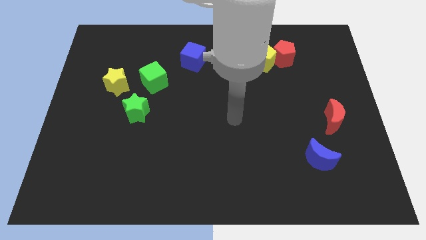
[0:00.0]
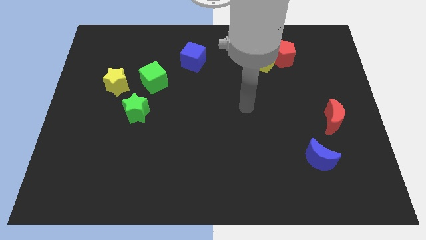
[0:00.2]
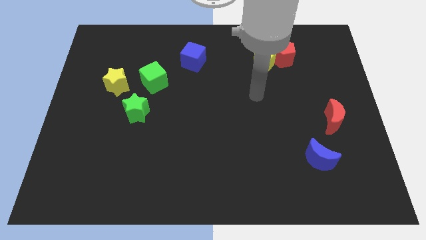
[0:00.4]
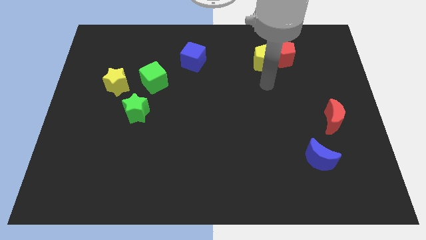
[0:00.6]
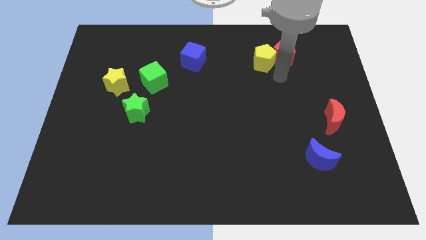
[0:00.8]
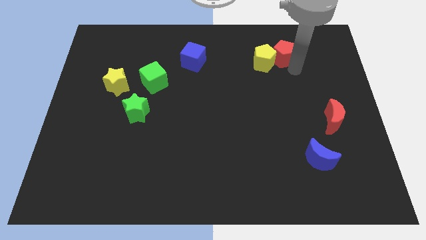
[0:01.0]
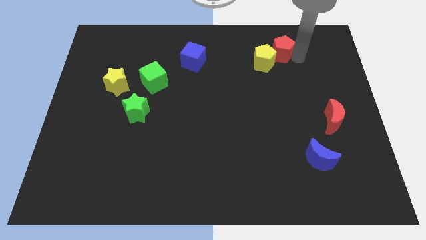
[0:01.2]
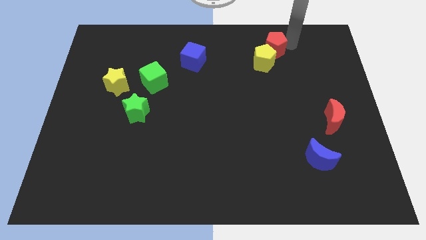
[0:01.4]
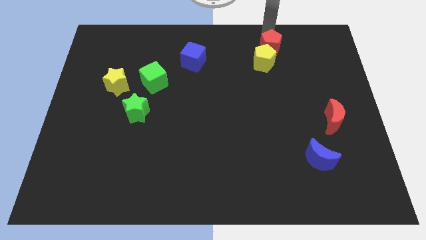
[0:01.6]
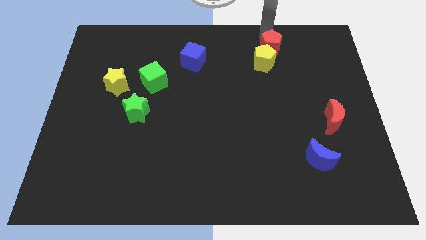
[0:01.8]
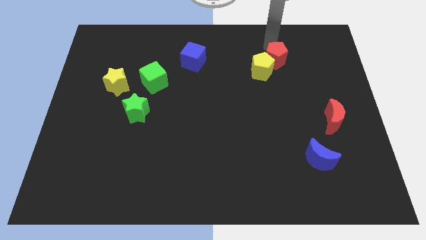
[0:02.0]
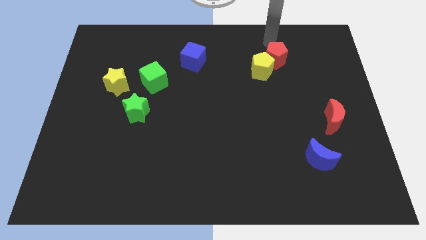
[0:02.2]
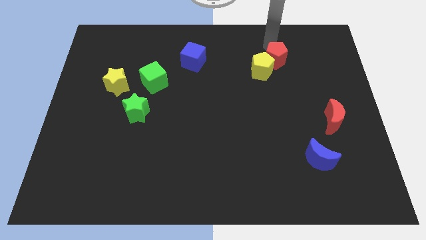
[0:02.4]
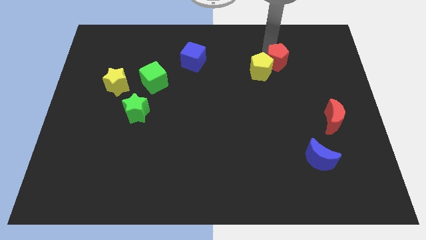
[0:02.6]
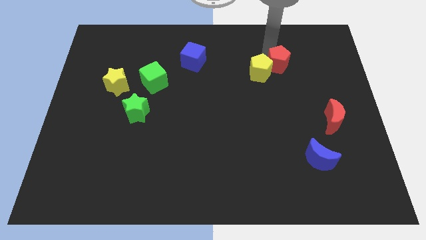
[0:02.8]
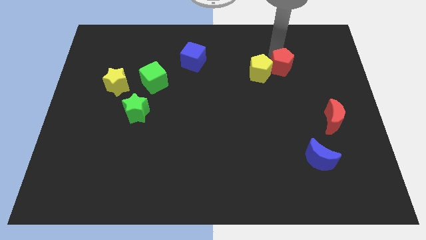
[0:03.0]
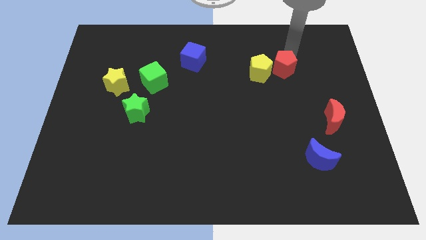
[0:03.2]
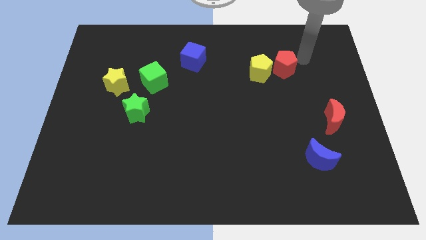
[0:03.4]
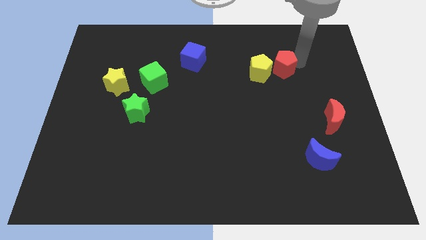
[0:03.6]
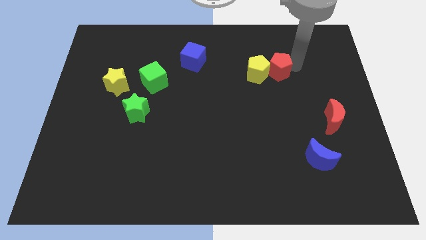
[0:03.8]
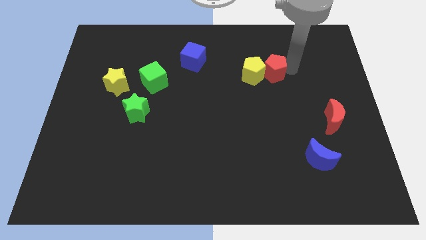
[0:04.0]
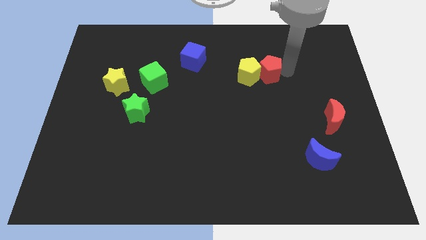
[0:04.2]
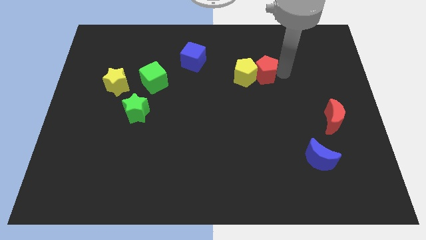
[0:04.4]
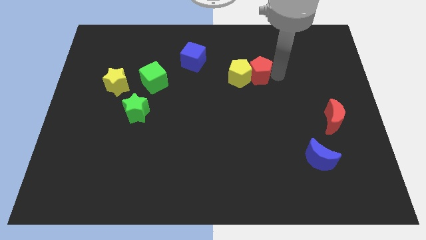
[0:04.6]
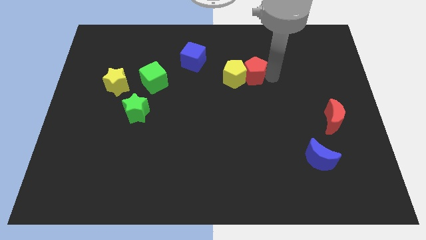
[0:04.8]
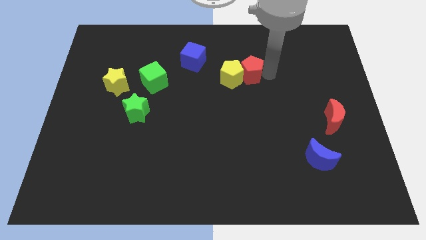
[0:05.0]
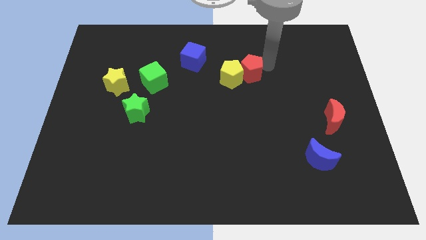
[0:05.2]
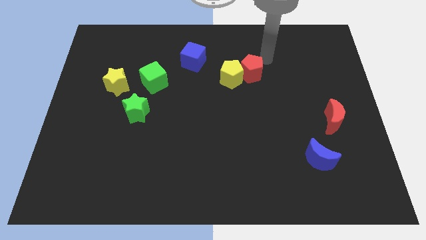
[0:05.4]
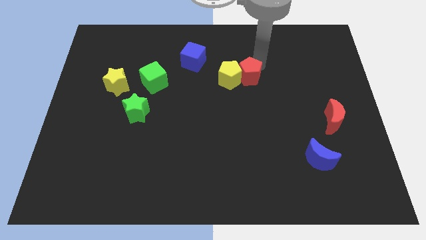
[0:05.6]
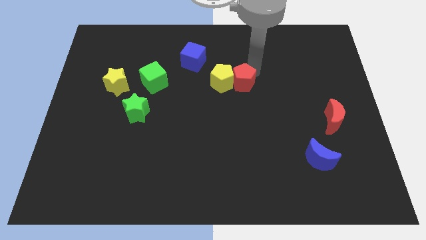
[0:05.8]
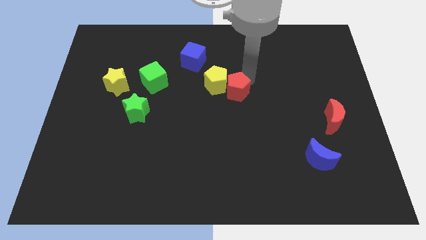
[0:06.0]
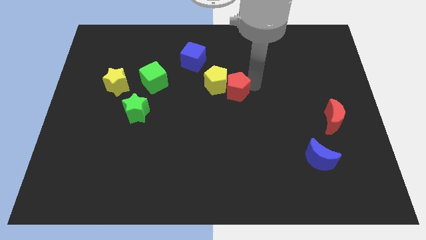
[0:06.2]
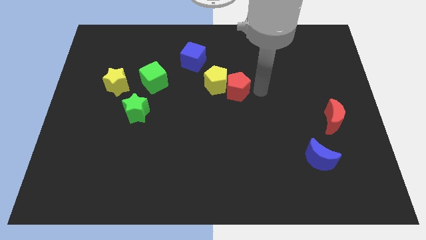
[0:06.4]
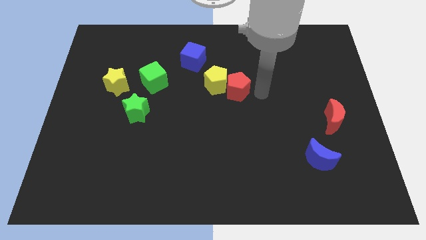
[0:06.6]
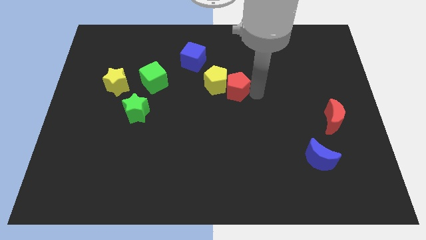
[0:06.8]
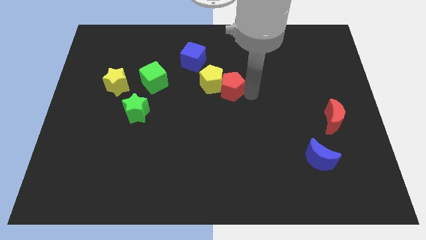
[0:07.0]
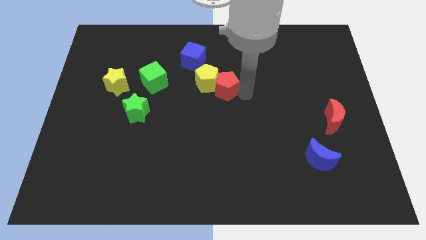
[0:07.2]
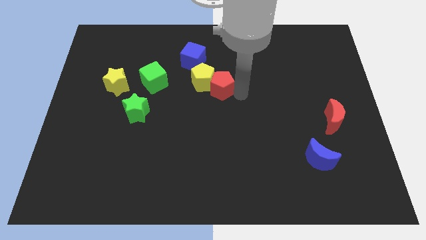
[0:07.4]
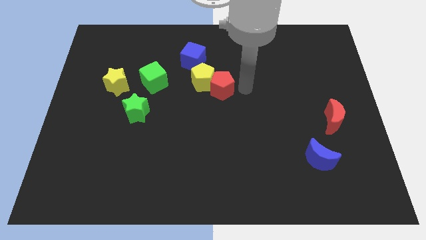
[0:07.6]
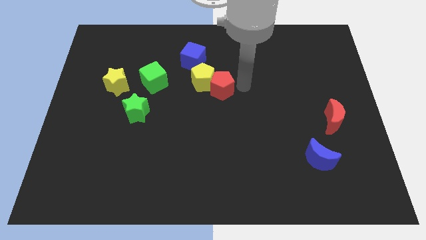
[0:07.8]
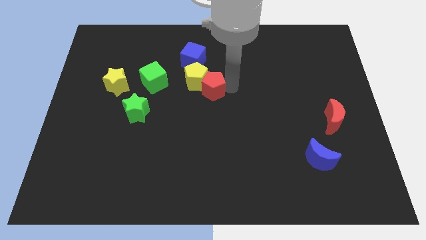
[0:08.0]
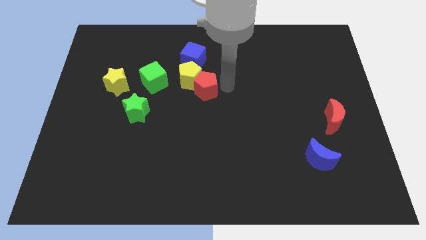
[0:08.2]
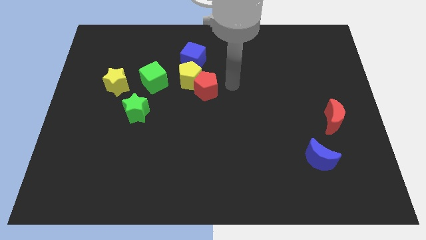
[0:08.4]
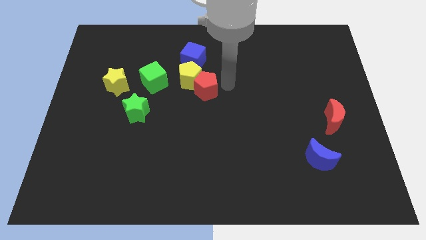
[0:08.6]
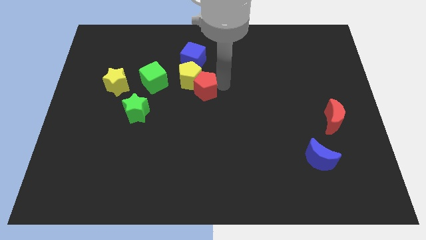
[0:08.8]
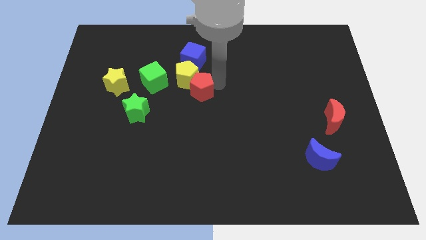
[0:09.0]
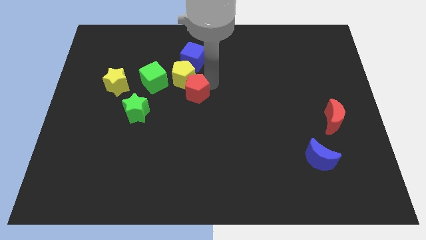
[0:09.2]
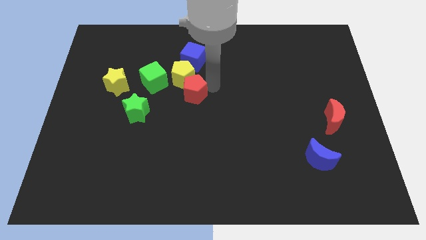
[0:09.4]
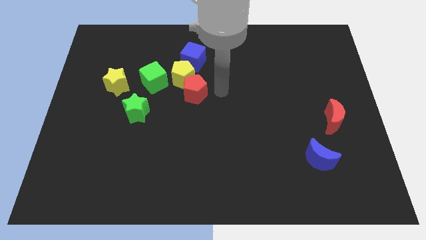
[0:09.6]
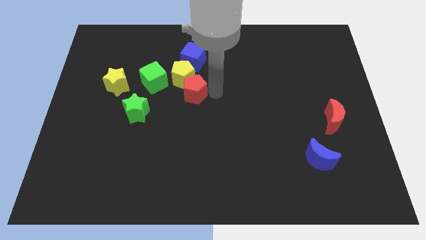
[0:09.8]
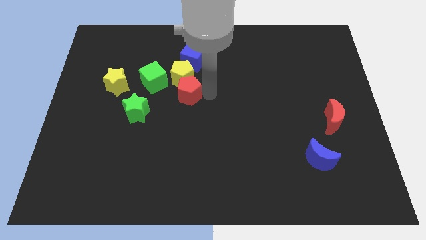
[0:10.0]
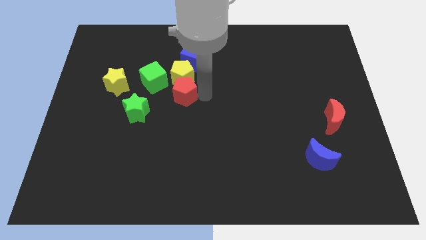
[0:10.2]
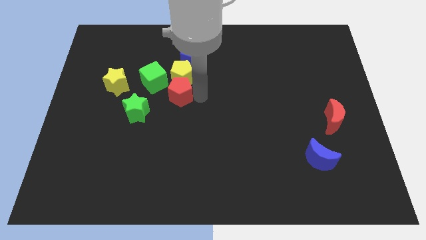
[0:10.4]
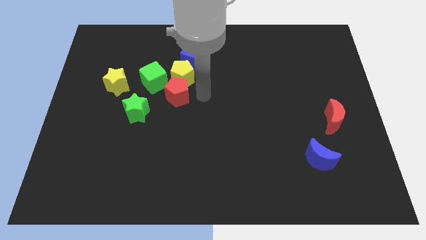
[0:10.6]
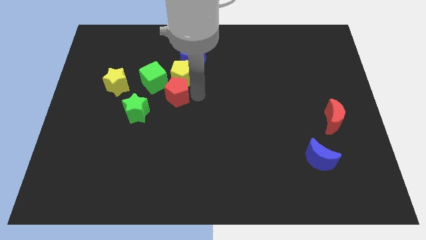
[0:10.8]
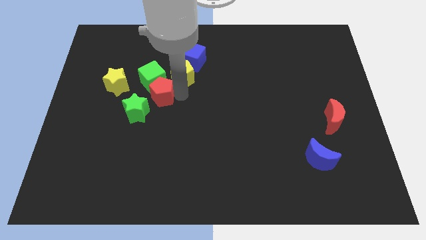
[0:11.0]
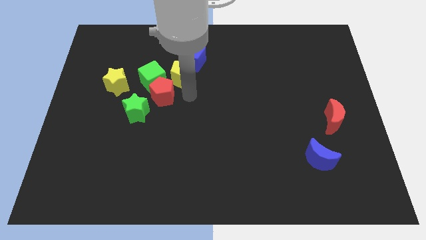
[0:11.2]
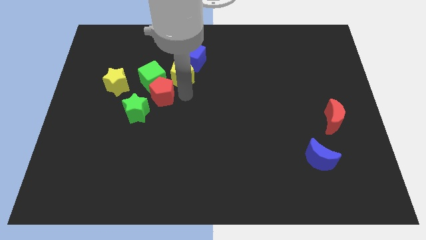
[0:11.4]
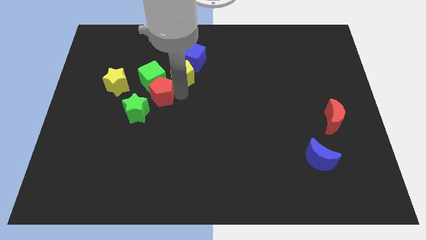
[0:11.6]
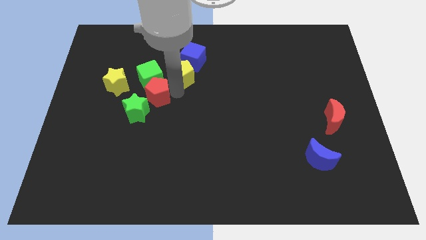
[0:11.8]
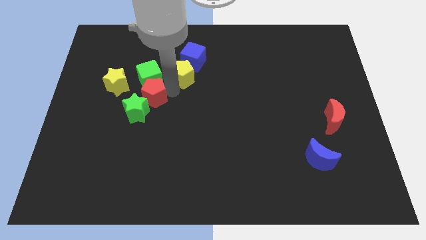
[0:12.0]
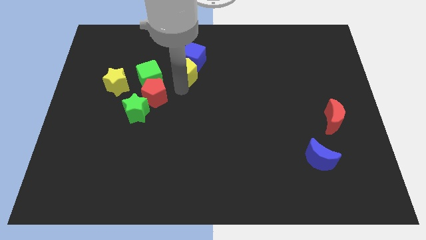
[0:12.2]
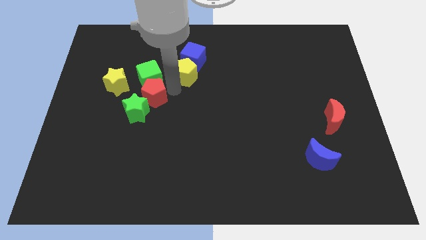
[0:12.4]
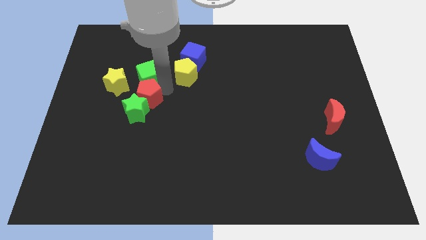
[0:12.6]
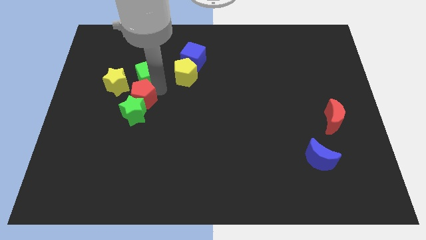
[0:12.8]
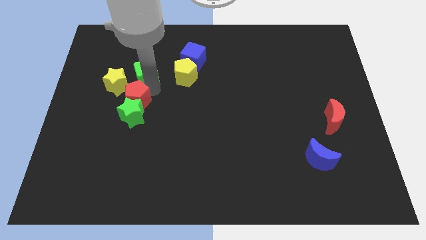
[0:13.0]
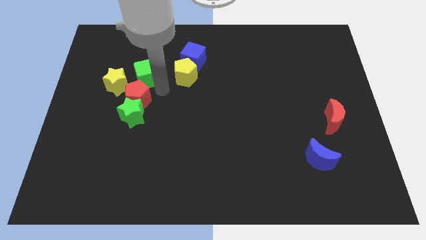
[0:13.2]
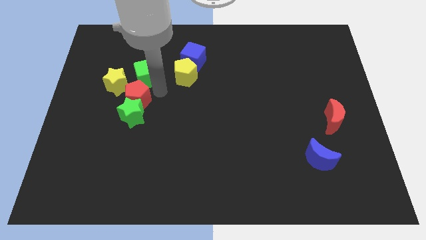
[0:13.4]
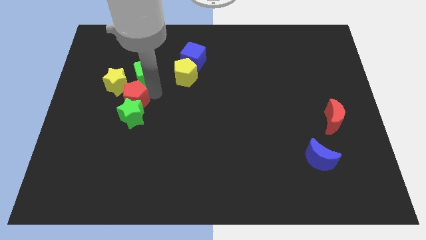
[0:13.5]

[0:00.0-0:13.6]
slide the red pentagon below the yellow star

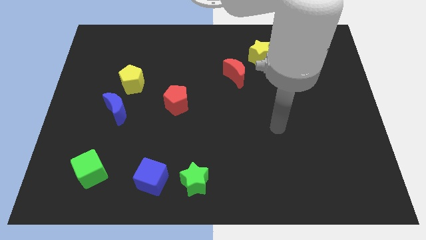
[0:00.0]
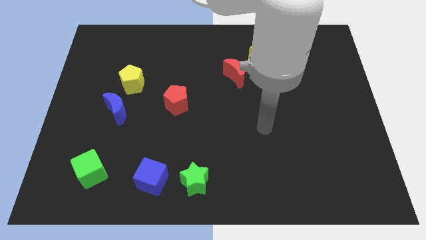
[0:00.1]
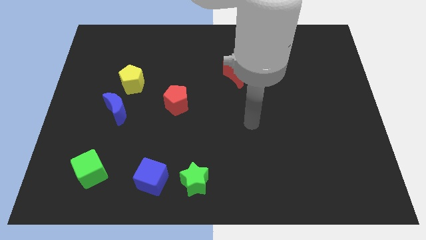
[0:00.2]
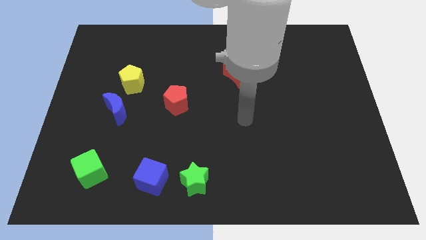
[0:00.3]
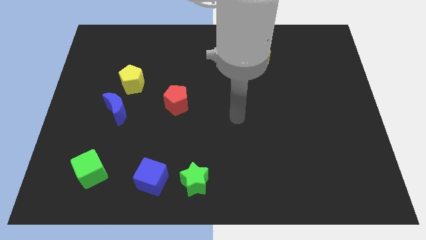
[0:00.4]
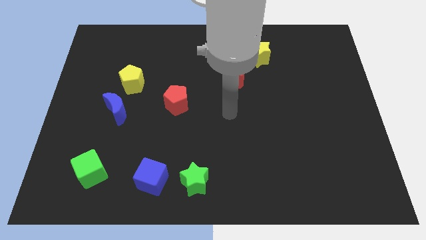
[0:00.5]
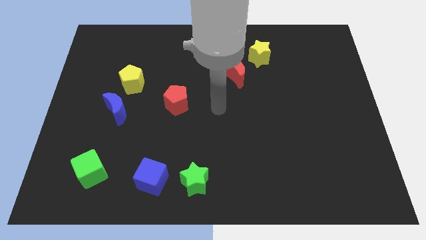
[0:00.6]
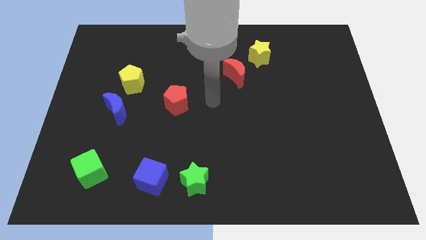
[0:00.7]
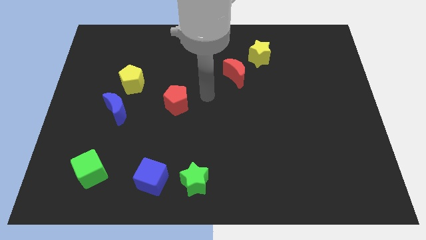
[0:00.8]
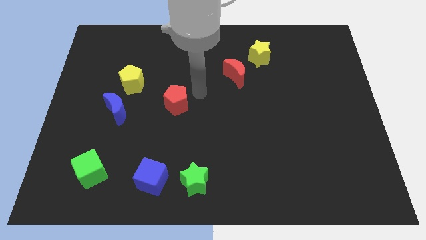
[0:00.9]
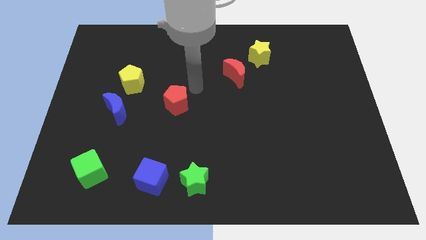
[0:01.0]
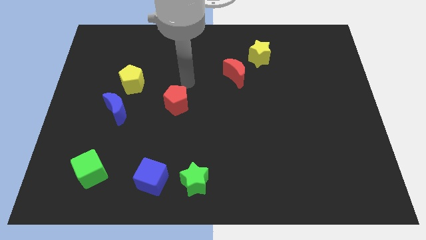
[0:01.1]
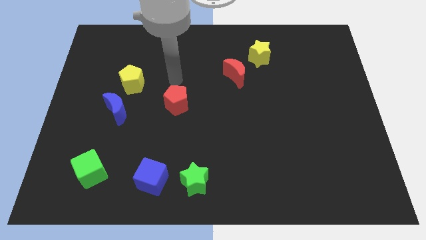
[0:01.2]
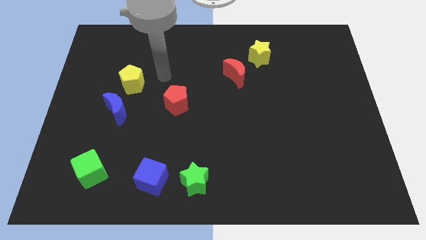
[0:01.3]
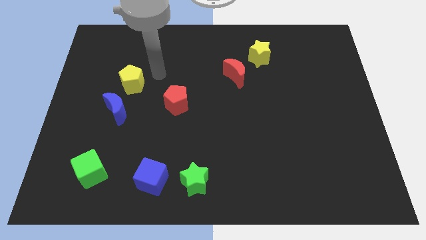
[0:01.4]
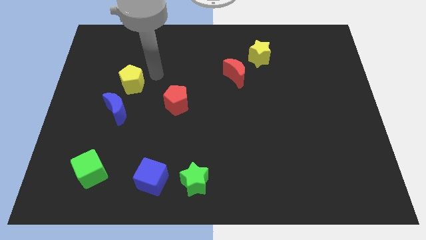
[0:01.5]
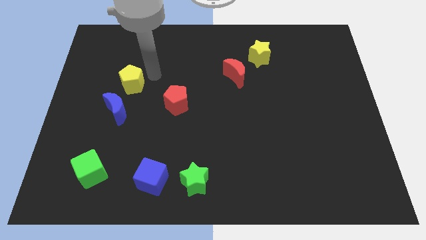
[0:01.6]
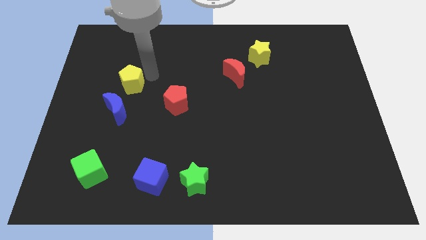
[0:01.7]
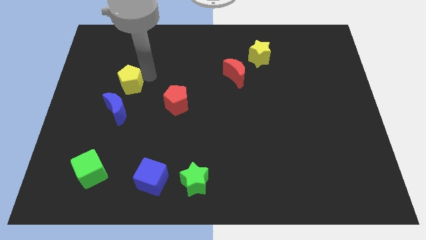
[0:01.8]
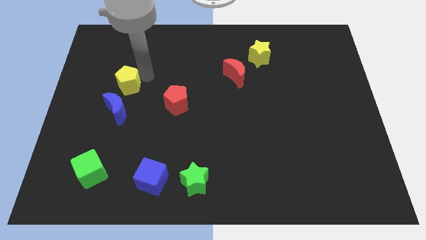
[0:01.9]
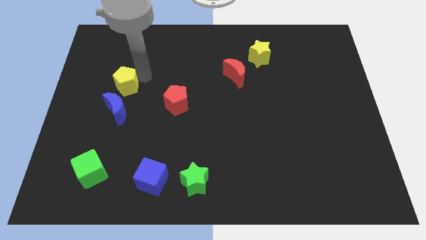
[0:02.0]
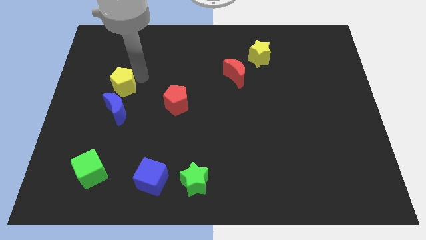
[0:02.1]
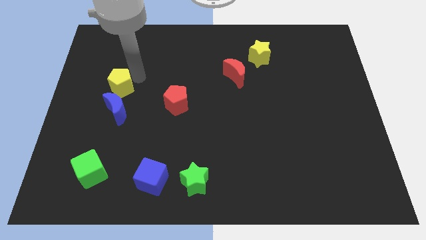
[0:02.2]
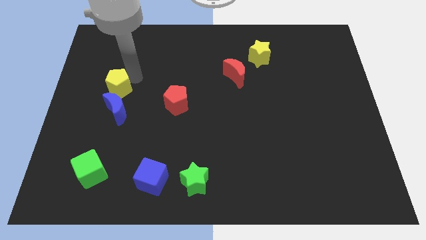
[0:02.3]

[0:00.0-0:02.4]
move the yellow pentagon diagonally up and to the left of the blue moon
